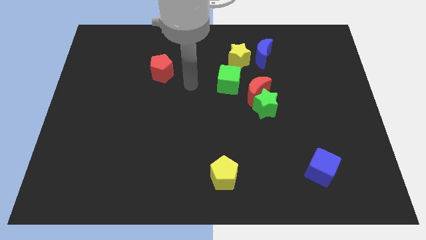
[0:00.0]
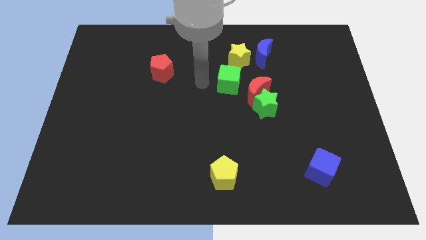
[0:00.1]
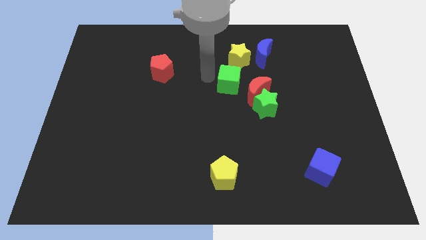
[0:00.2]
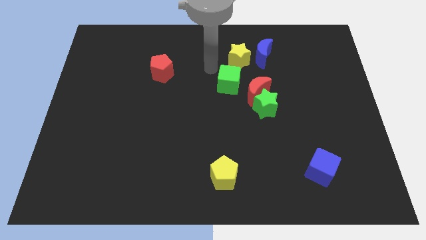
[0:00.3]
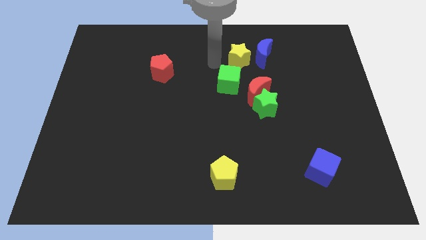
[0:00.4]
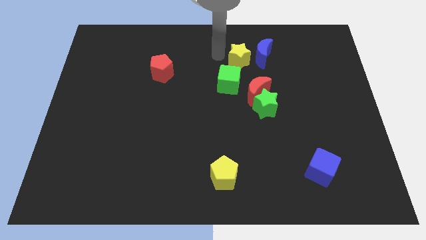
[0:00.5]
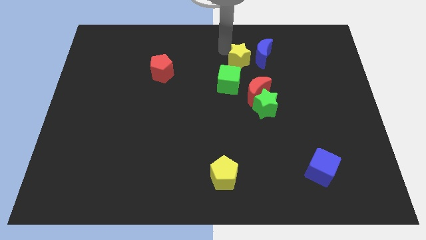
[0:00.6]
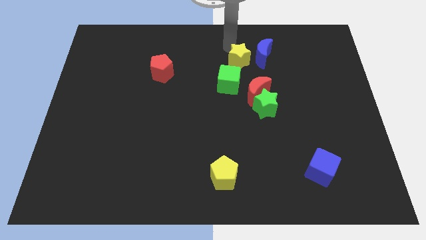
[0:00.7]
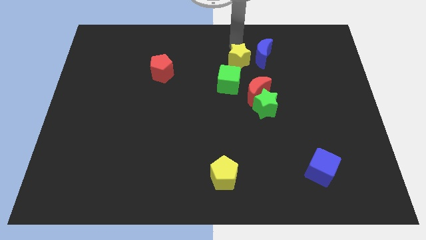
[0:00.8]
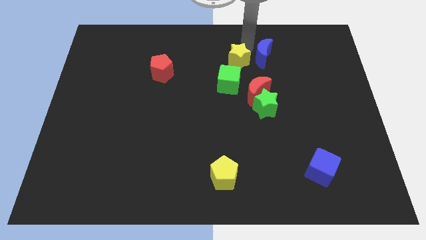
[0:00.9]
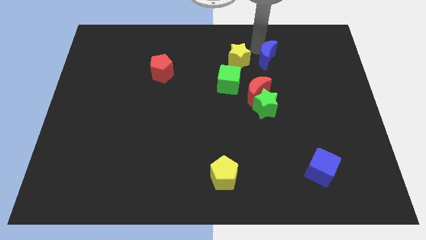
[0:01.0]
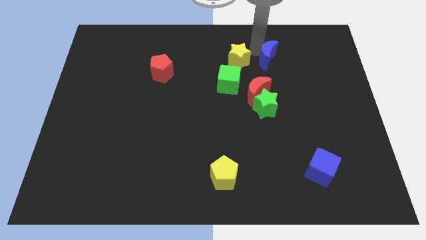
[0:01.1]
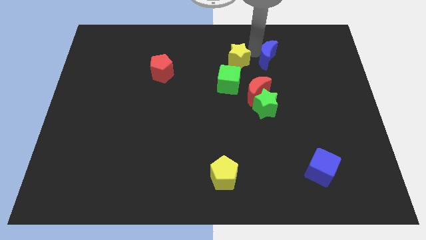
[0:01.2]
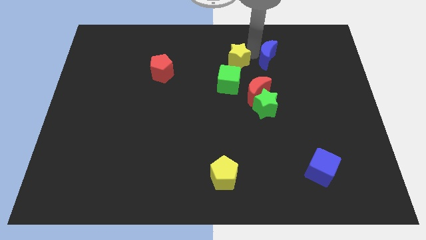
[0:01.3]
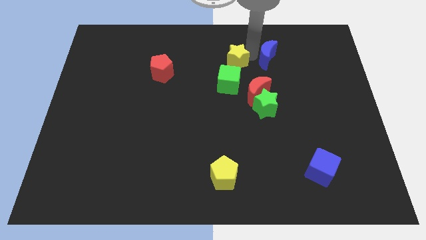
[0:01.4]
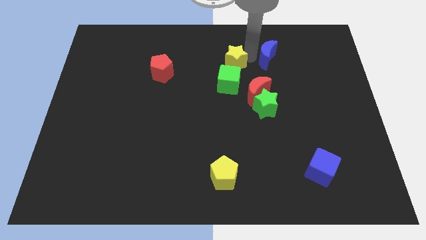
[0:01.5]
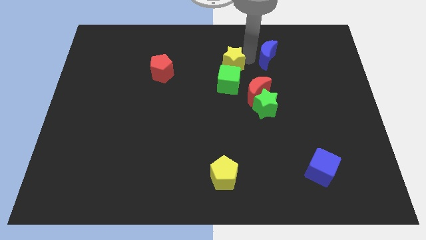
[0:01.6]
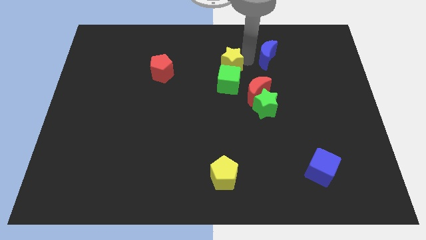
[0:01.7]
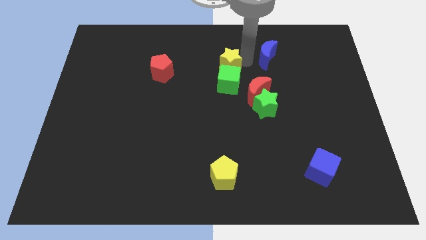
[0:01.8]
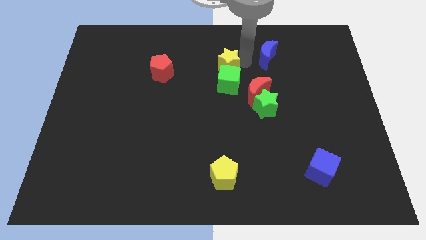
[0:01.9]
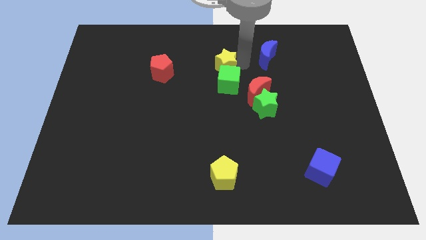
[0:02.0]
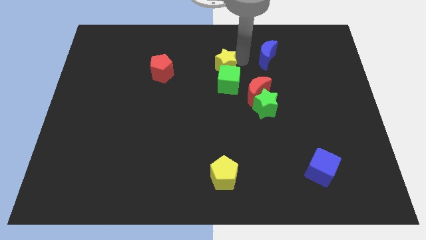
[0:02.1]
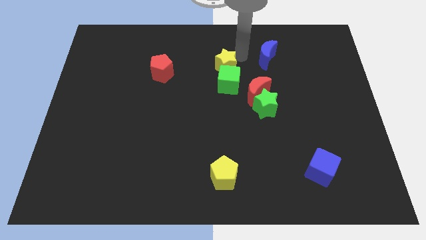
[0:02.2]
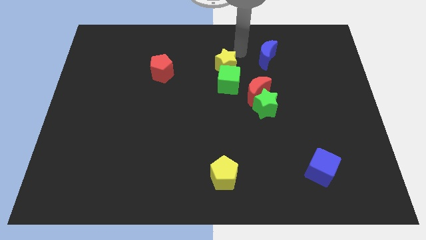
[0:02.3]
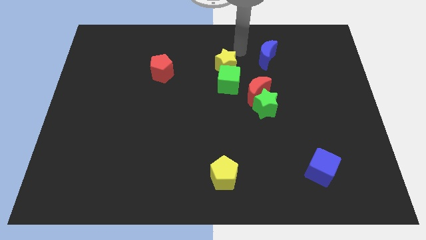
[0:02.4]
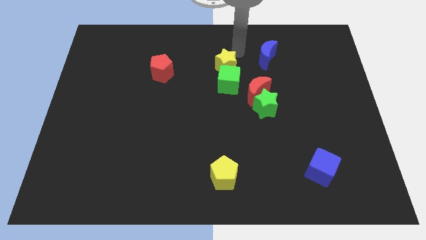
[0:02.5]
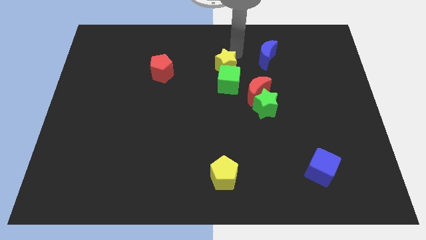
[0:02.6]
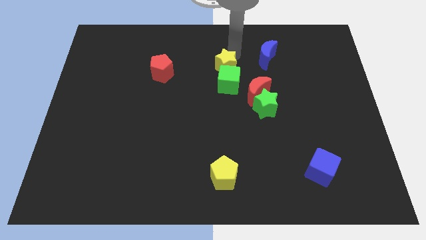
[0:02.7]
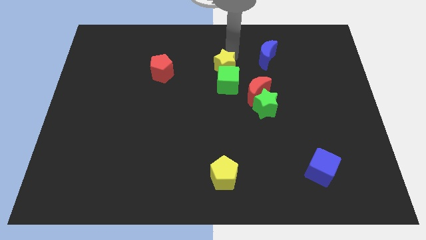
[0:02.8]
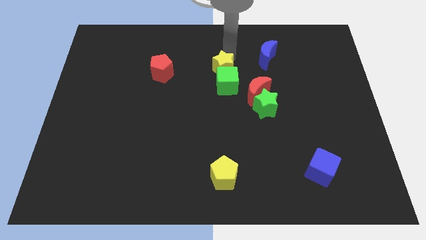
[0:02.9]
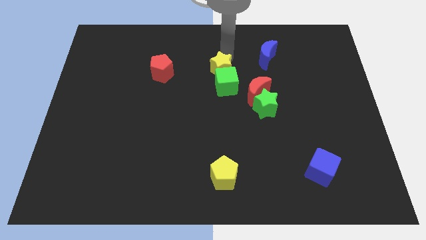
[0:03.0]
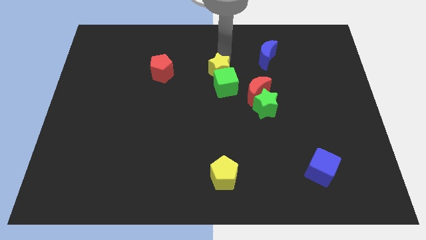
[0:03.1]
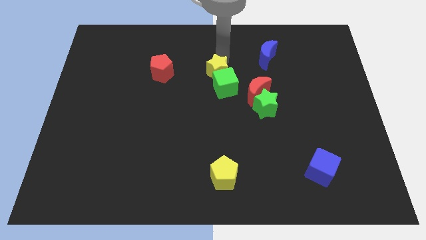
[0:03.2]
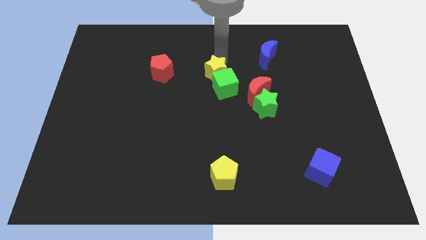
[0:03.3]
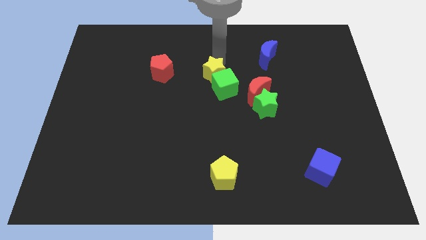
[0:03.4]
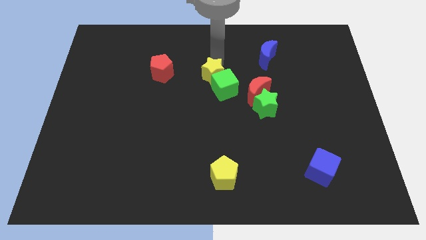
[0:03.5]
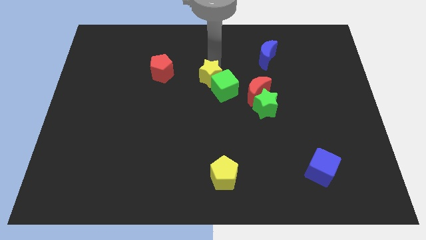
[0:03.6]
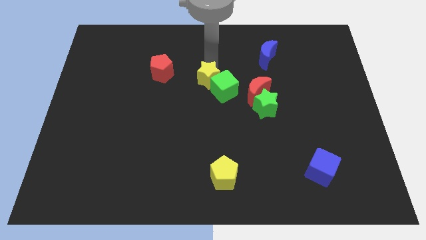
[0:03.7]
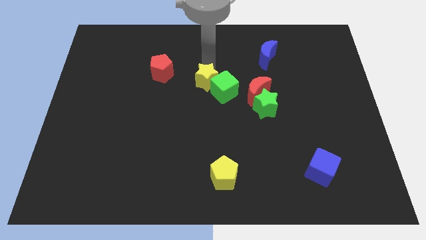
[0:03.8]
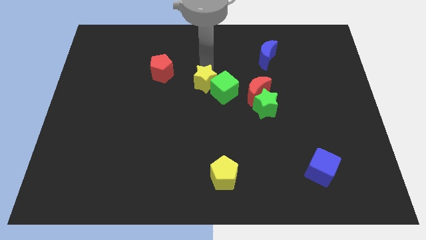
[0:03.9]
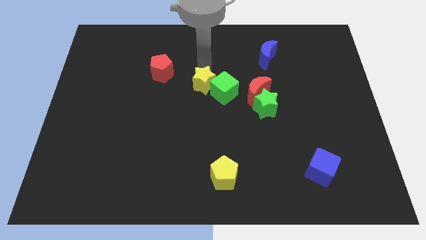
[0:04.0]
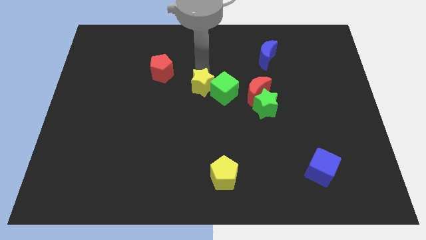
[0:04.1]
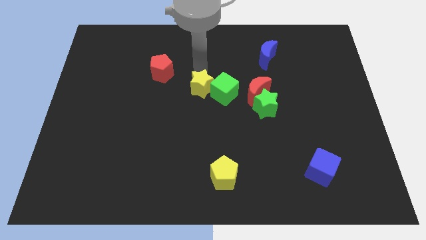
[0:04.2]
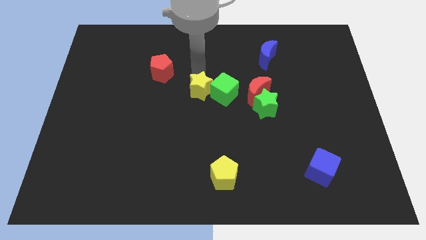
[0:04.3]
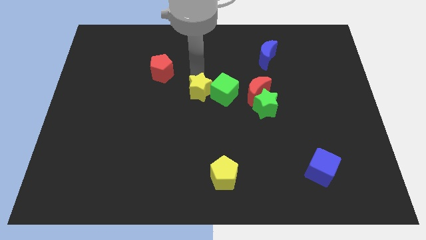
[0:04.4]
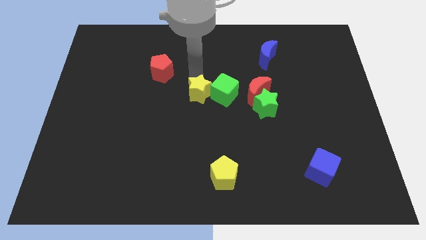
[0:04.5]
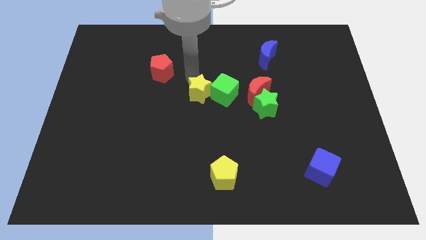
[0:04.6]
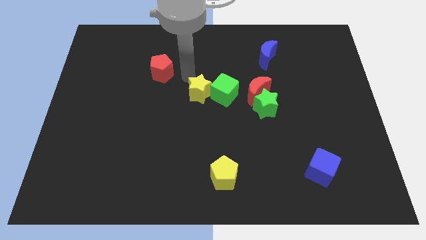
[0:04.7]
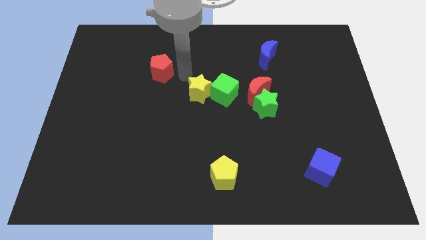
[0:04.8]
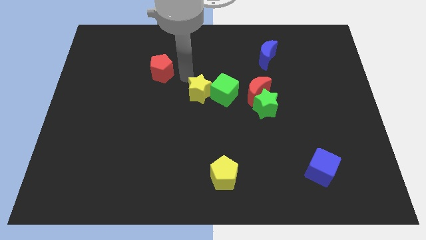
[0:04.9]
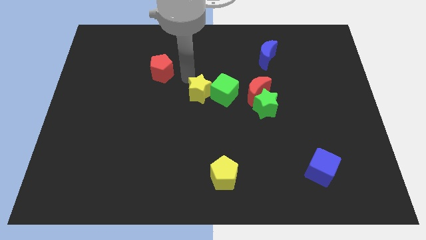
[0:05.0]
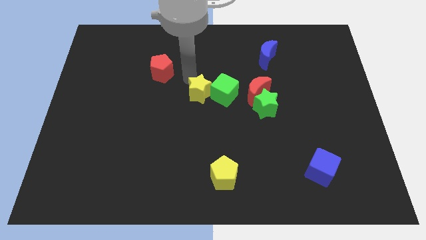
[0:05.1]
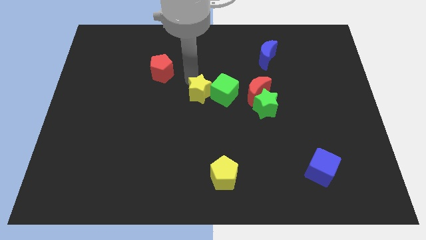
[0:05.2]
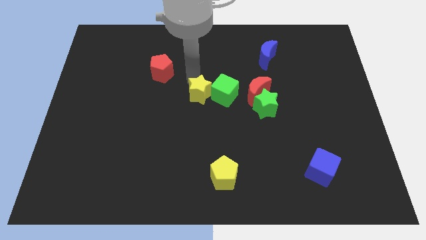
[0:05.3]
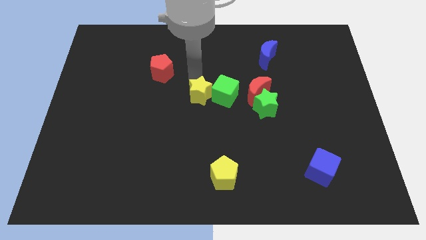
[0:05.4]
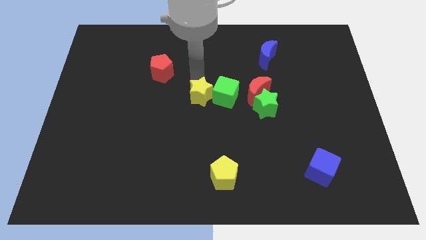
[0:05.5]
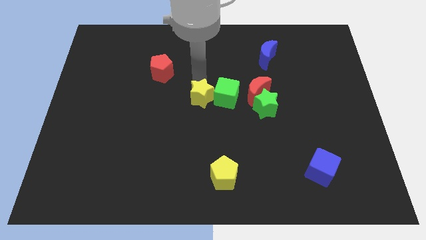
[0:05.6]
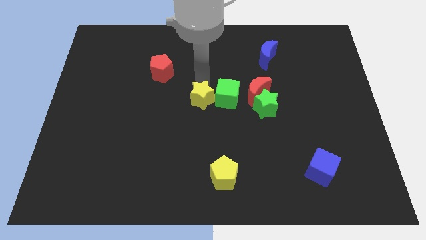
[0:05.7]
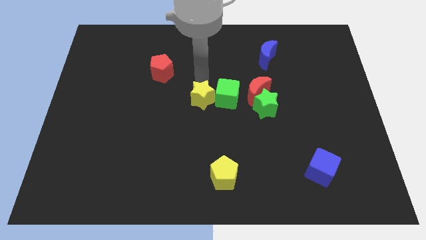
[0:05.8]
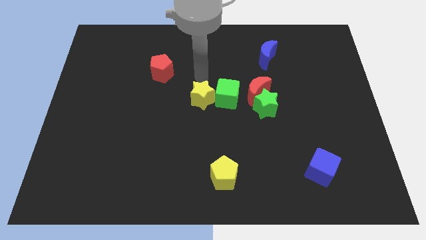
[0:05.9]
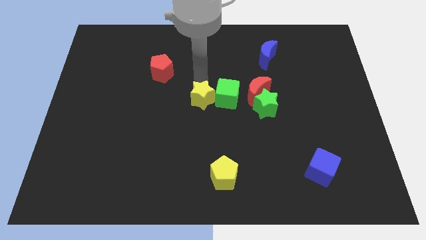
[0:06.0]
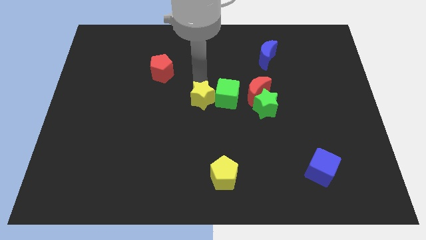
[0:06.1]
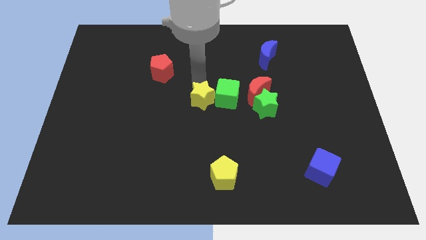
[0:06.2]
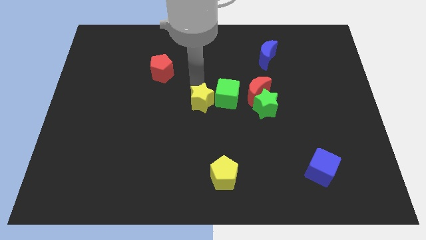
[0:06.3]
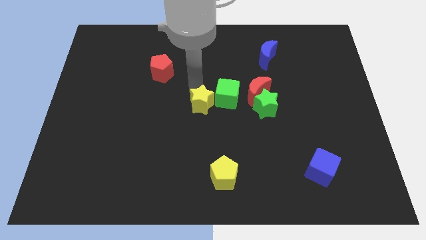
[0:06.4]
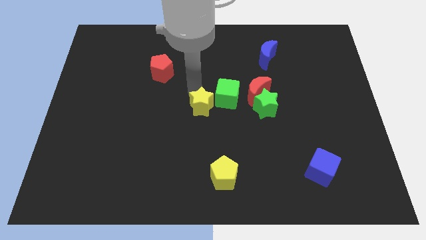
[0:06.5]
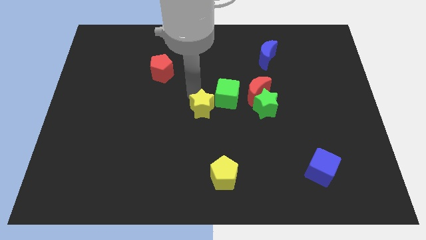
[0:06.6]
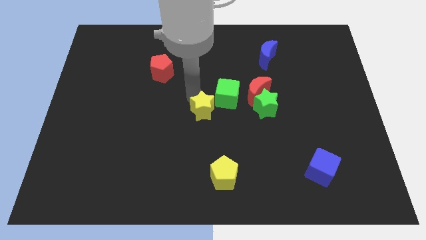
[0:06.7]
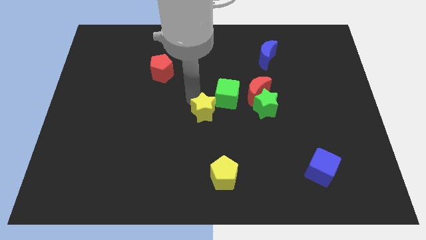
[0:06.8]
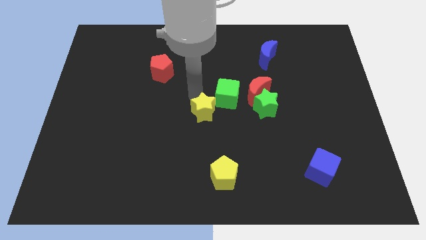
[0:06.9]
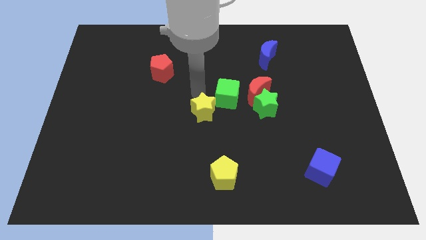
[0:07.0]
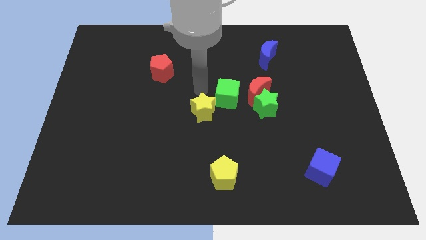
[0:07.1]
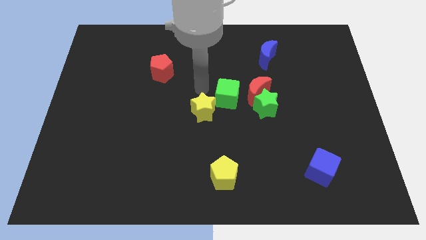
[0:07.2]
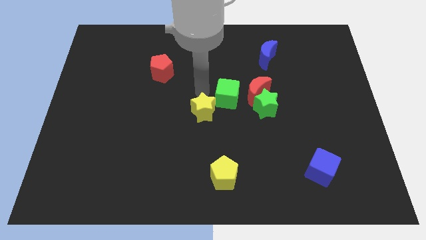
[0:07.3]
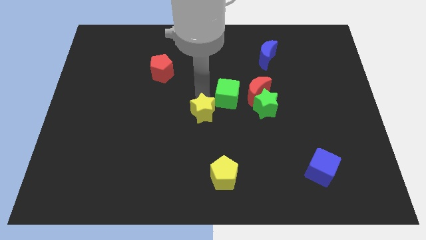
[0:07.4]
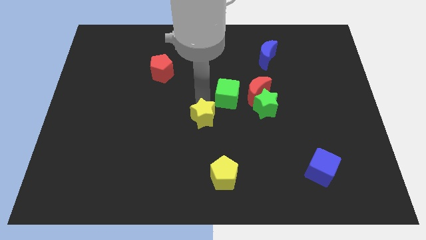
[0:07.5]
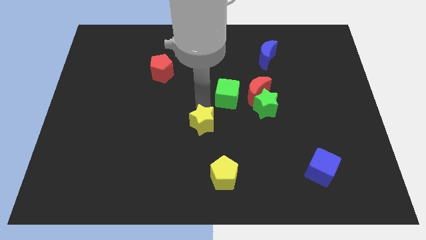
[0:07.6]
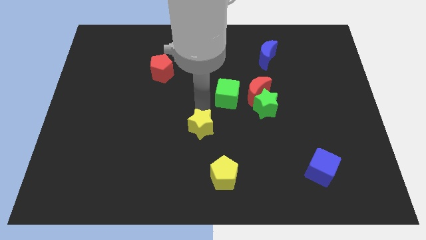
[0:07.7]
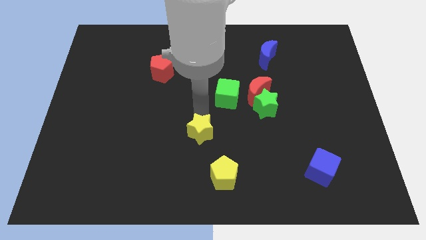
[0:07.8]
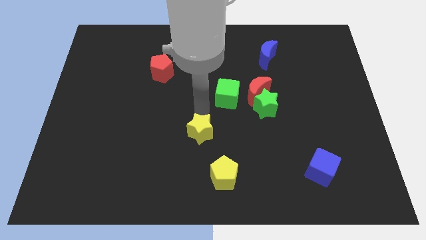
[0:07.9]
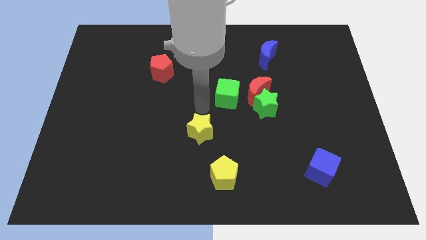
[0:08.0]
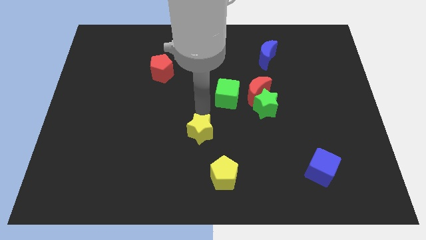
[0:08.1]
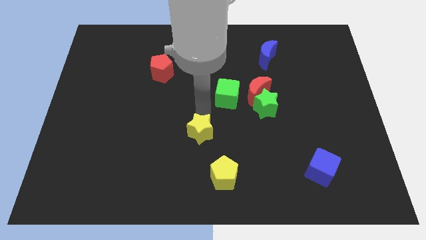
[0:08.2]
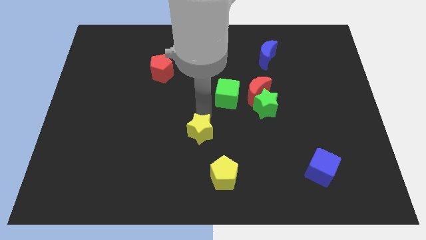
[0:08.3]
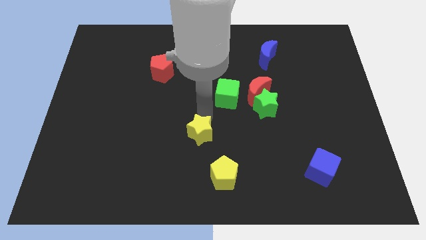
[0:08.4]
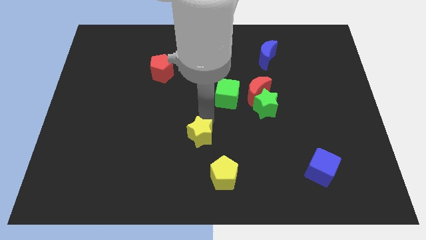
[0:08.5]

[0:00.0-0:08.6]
push the yellow star to the top left of the yellow pentagon
